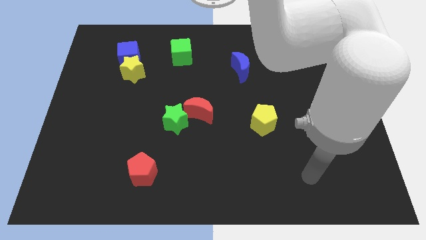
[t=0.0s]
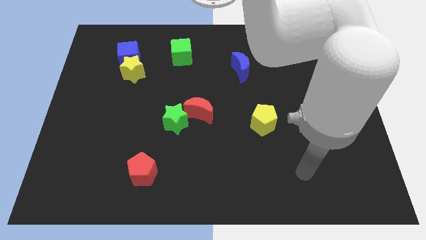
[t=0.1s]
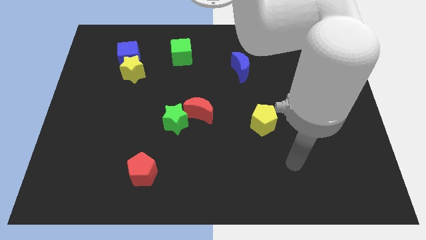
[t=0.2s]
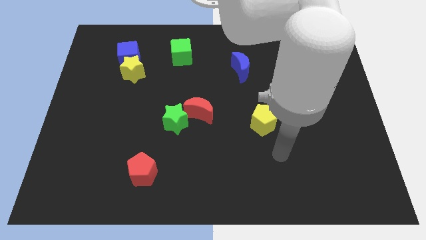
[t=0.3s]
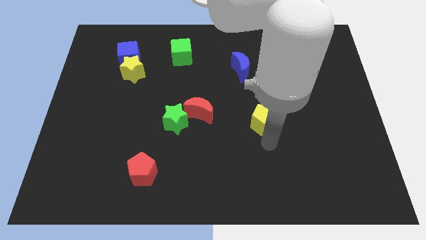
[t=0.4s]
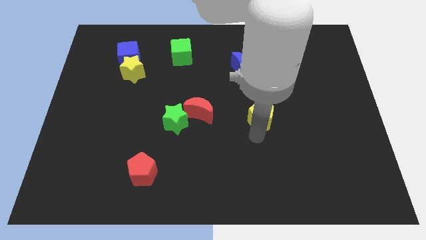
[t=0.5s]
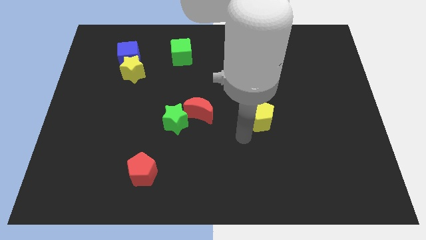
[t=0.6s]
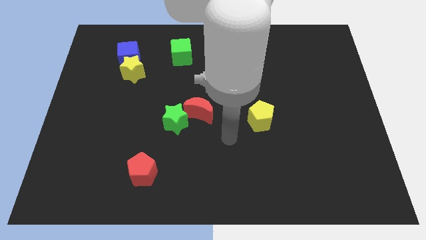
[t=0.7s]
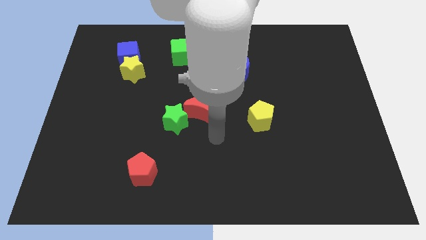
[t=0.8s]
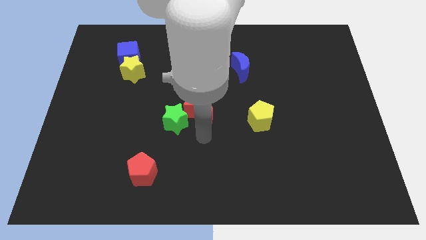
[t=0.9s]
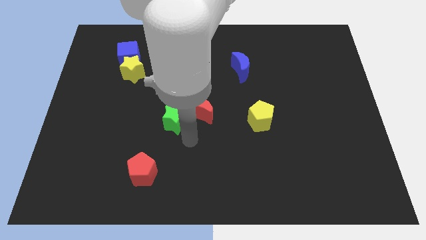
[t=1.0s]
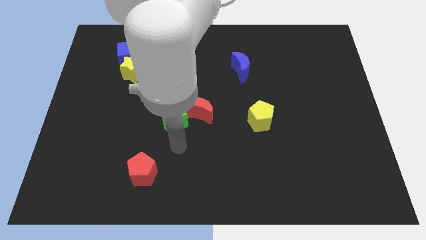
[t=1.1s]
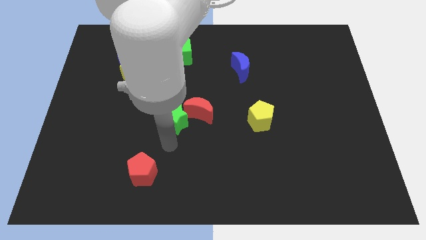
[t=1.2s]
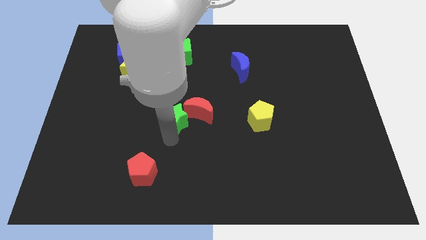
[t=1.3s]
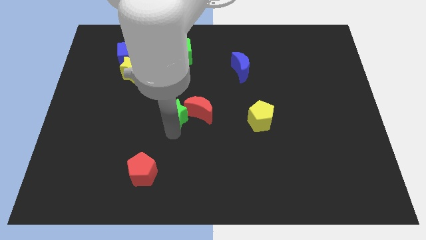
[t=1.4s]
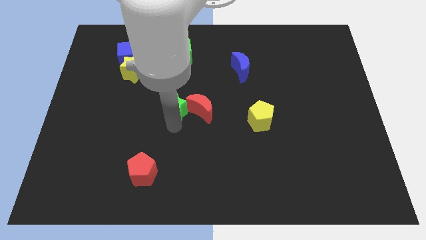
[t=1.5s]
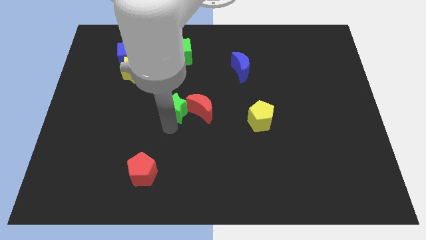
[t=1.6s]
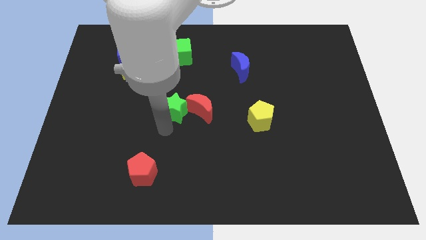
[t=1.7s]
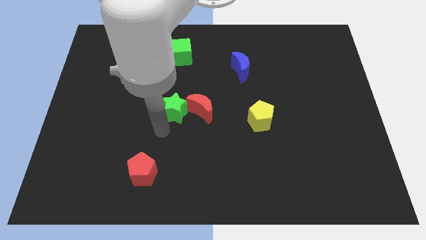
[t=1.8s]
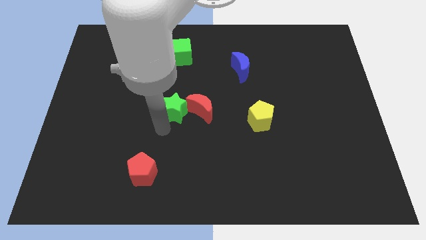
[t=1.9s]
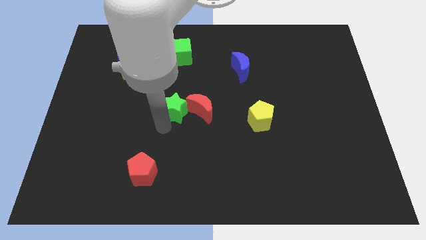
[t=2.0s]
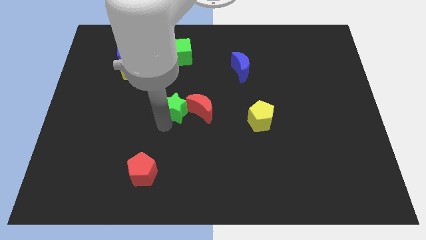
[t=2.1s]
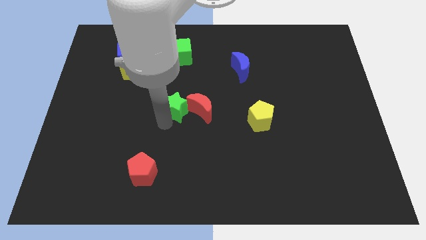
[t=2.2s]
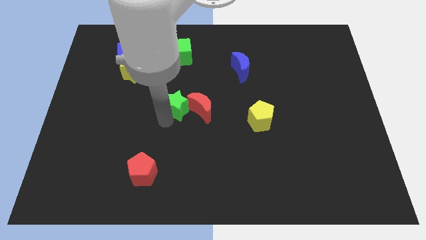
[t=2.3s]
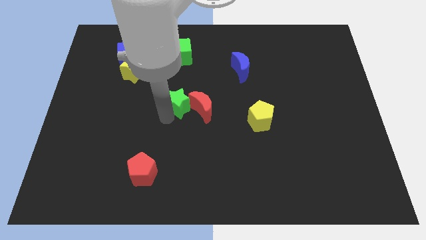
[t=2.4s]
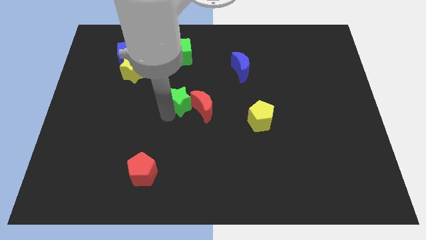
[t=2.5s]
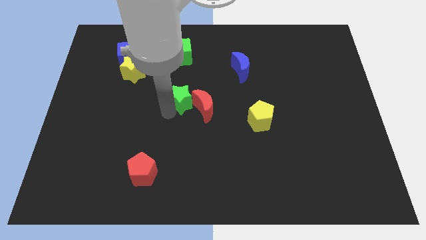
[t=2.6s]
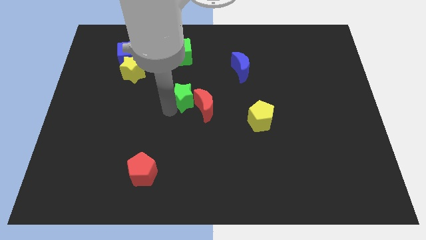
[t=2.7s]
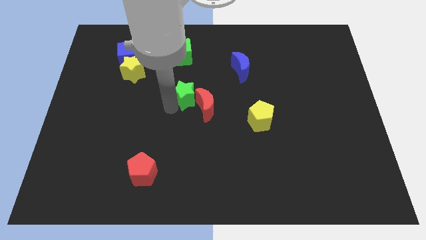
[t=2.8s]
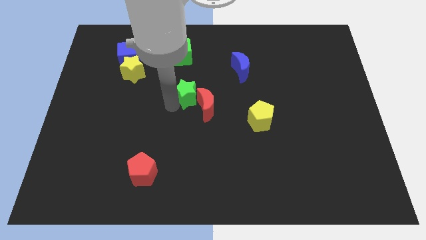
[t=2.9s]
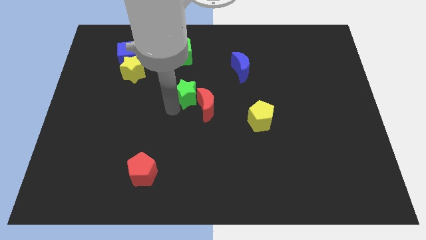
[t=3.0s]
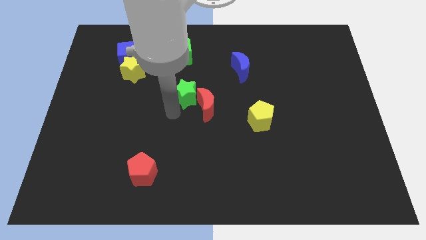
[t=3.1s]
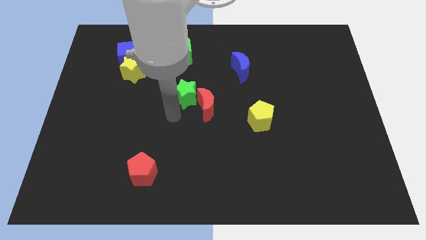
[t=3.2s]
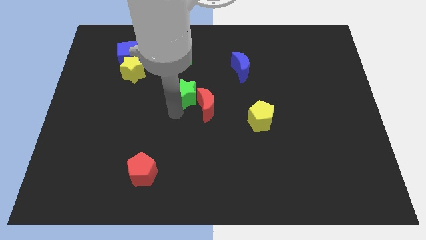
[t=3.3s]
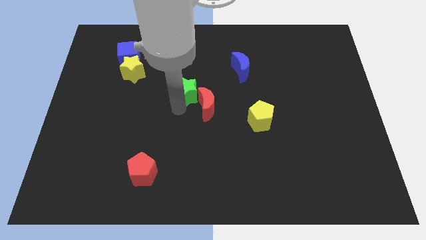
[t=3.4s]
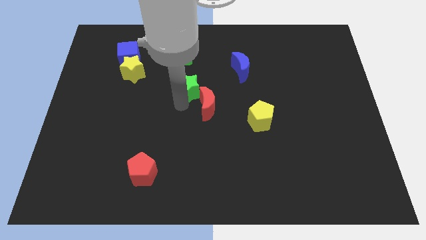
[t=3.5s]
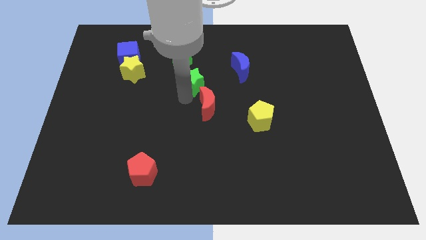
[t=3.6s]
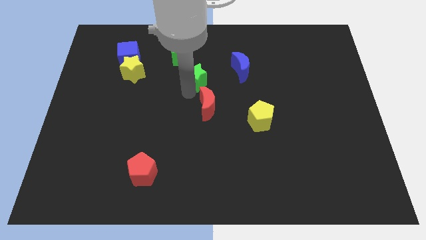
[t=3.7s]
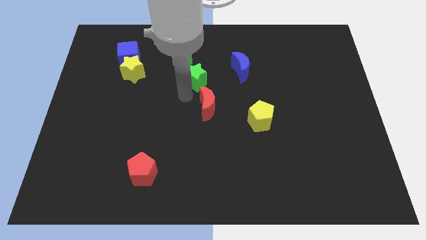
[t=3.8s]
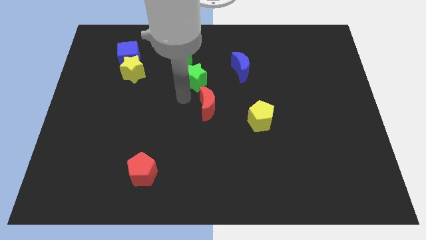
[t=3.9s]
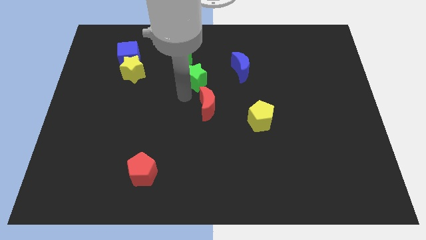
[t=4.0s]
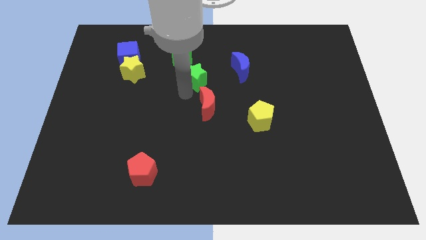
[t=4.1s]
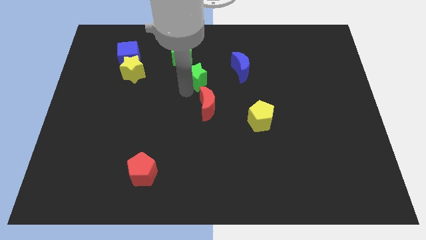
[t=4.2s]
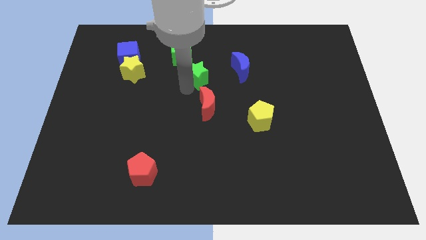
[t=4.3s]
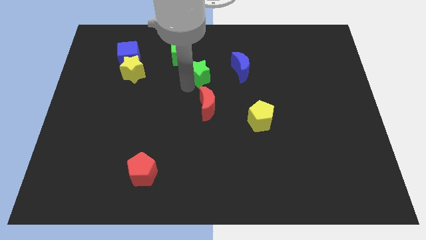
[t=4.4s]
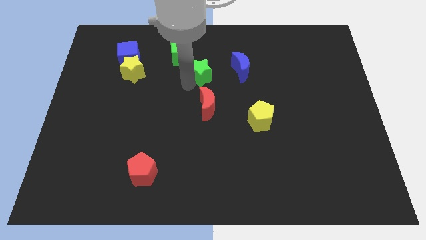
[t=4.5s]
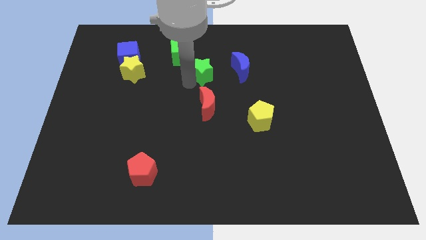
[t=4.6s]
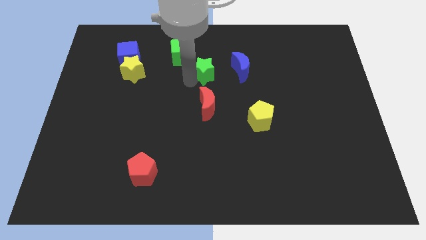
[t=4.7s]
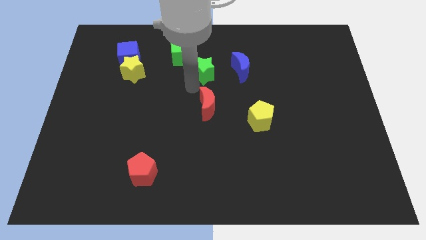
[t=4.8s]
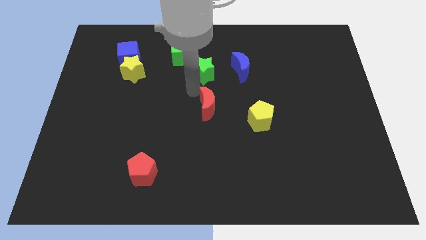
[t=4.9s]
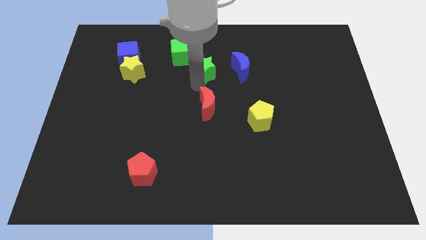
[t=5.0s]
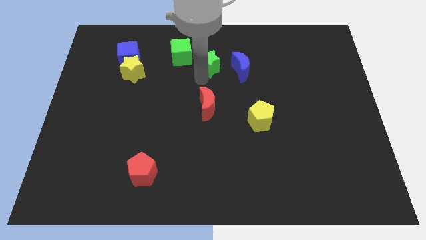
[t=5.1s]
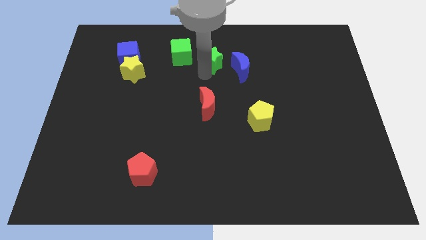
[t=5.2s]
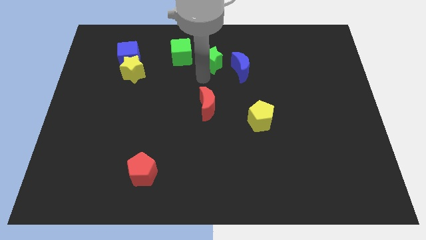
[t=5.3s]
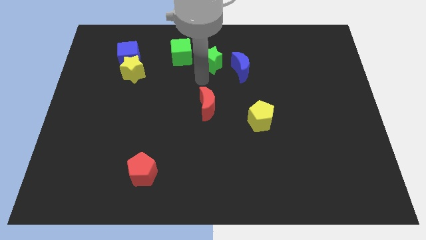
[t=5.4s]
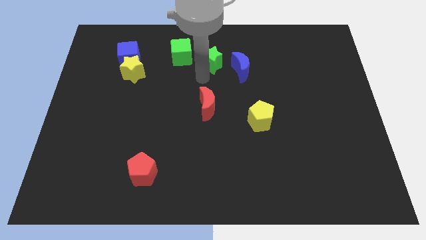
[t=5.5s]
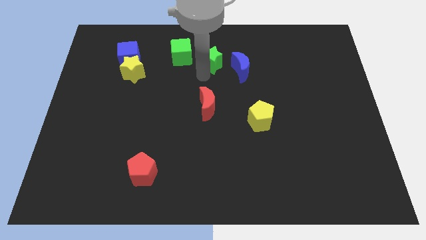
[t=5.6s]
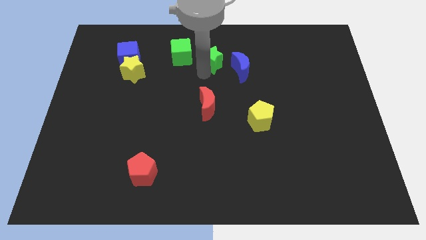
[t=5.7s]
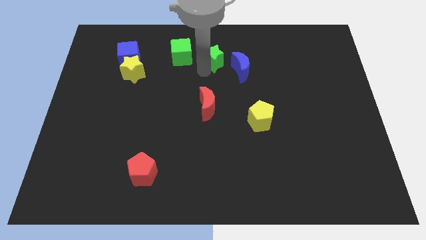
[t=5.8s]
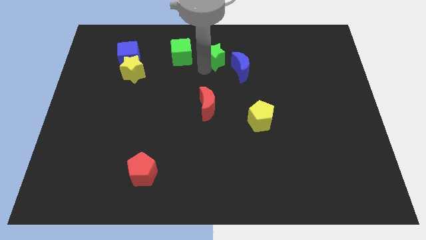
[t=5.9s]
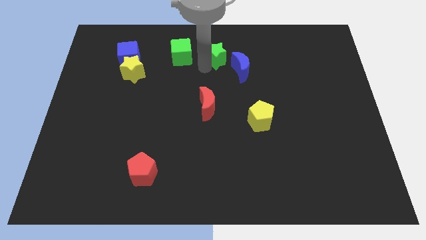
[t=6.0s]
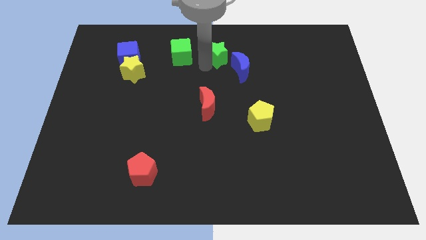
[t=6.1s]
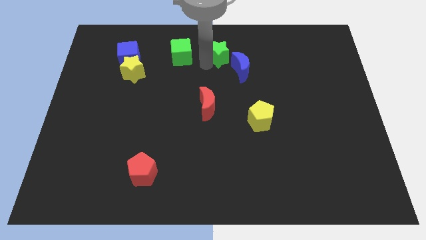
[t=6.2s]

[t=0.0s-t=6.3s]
put the green star to the top
